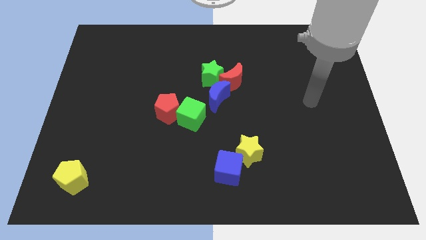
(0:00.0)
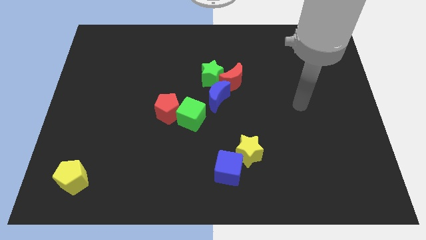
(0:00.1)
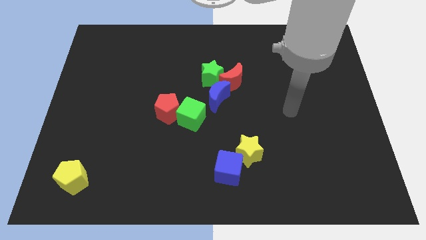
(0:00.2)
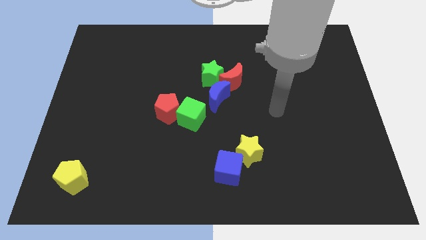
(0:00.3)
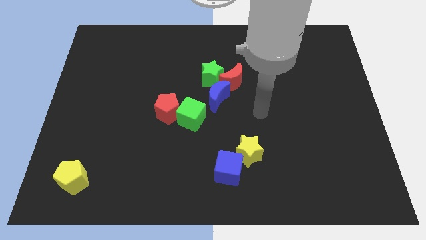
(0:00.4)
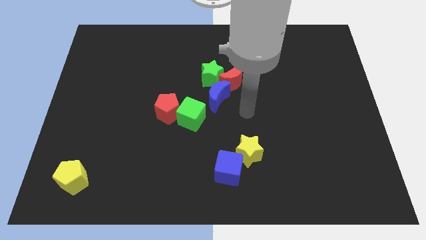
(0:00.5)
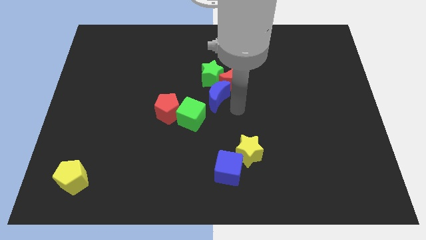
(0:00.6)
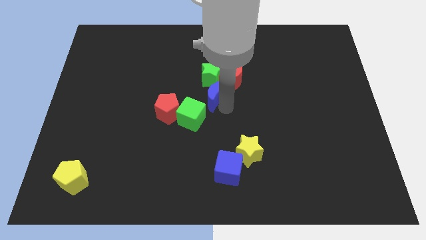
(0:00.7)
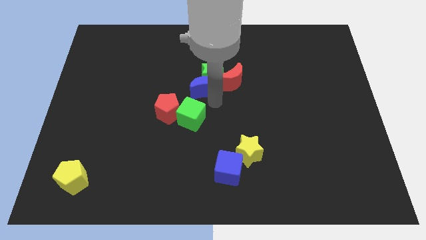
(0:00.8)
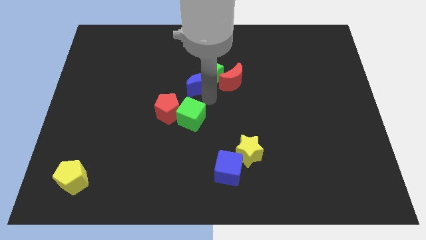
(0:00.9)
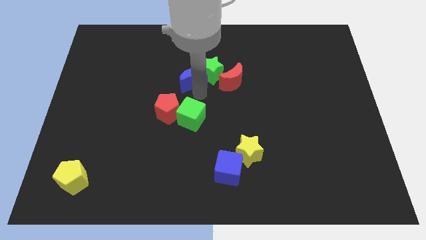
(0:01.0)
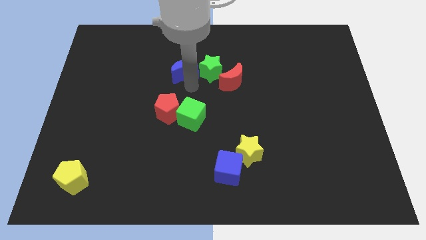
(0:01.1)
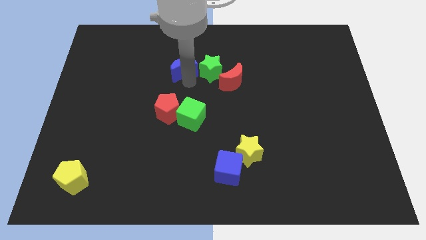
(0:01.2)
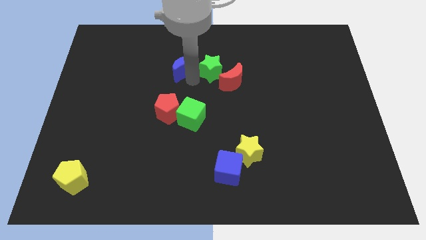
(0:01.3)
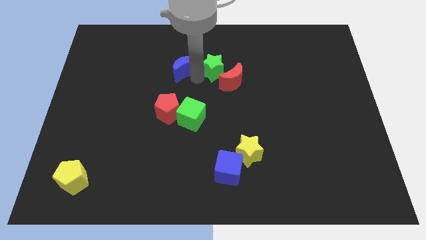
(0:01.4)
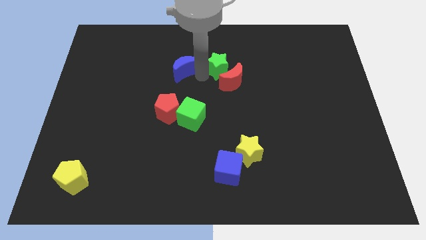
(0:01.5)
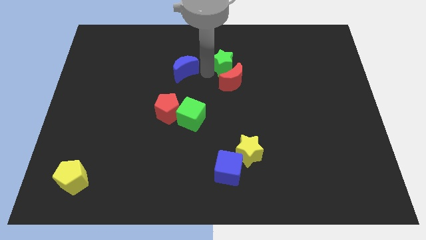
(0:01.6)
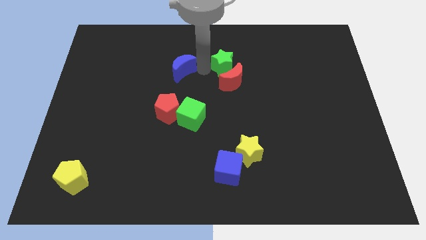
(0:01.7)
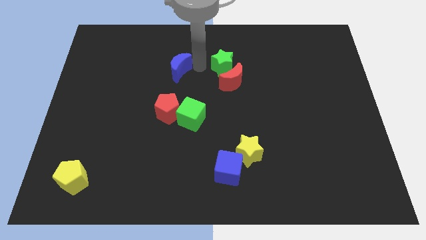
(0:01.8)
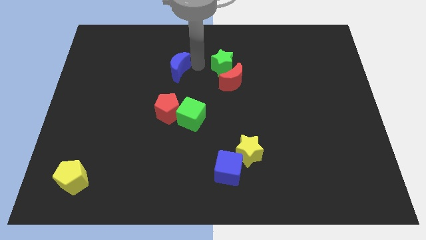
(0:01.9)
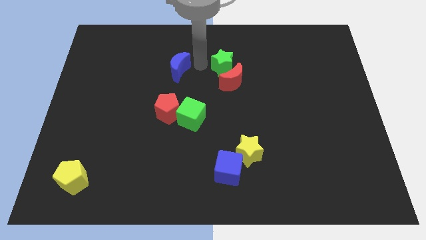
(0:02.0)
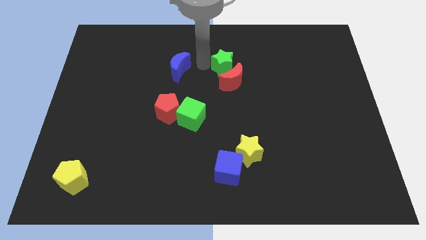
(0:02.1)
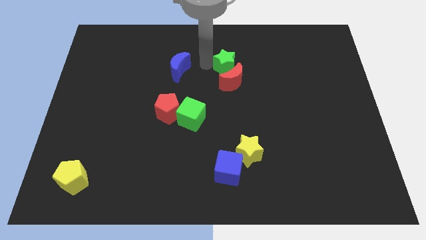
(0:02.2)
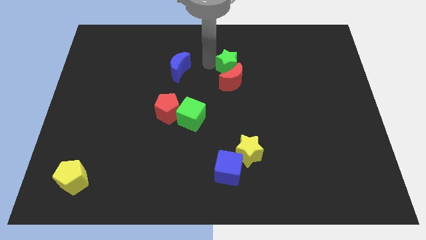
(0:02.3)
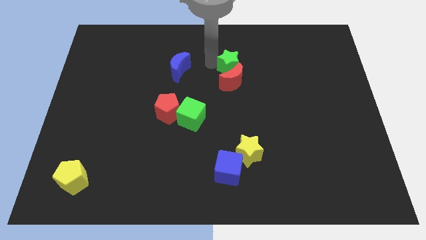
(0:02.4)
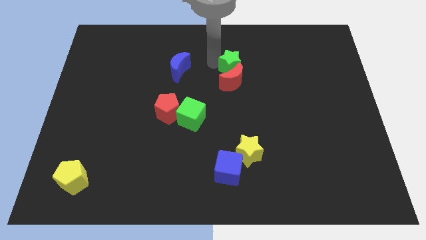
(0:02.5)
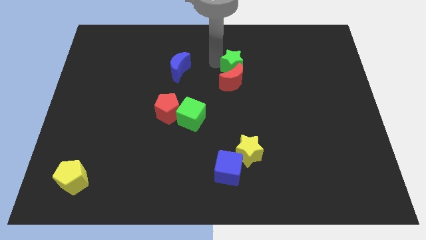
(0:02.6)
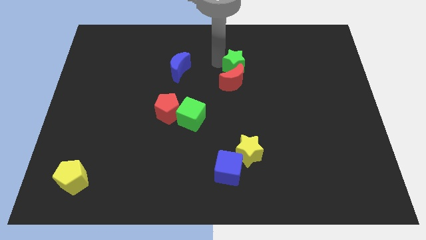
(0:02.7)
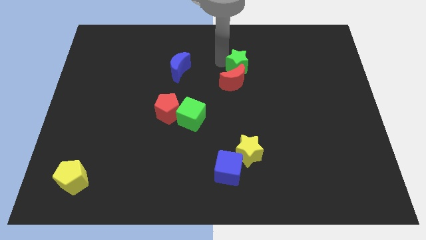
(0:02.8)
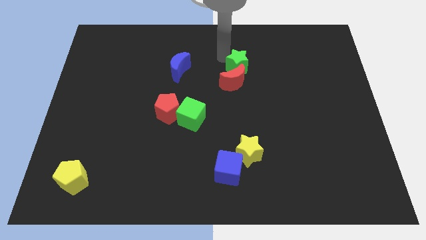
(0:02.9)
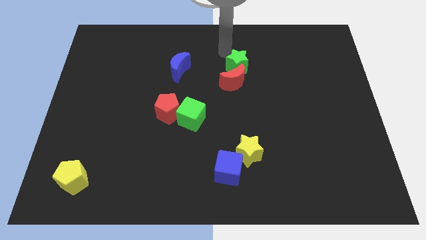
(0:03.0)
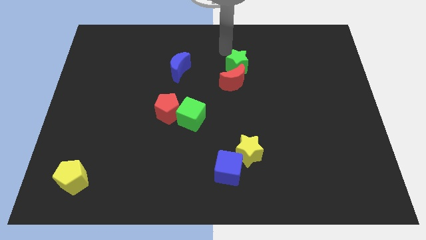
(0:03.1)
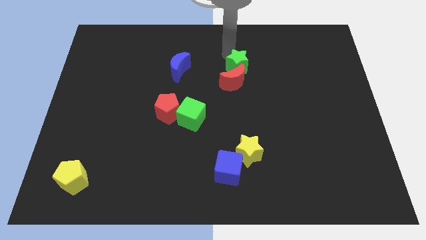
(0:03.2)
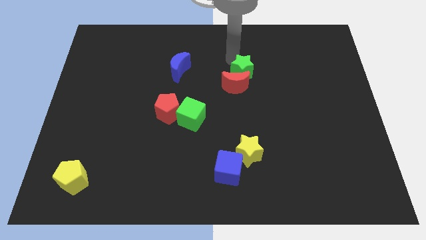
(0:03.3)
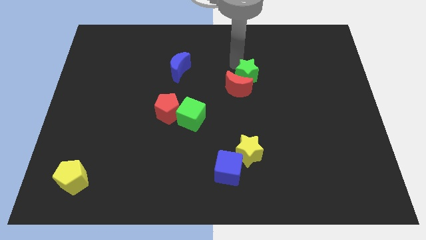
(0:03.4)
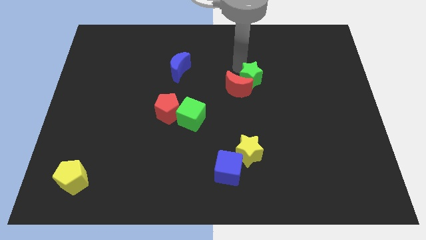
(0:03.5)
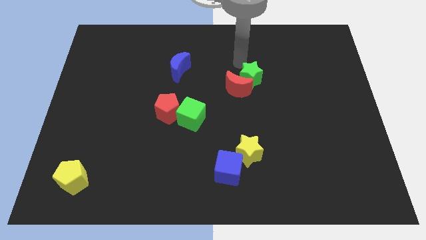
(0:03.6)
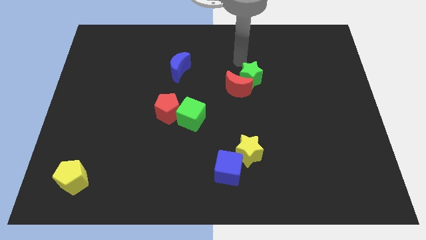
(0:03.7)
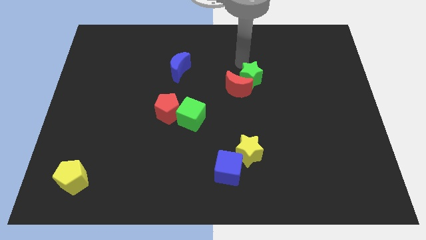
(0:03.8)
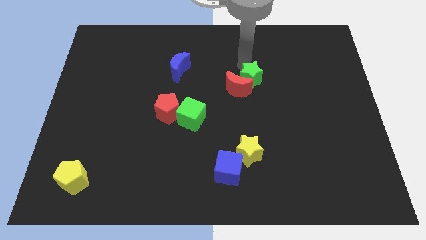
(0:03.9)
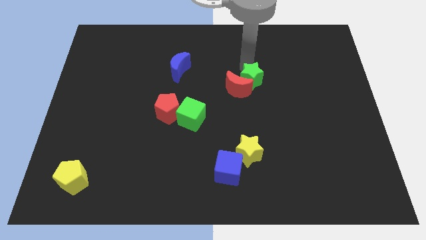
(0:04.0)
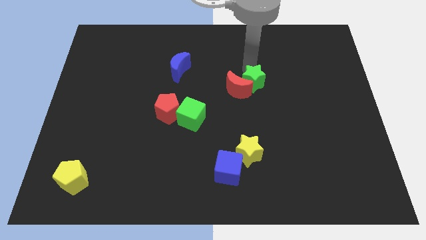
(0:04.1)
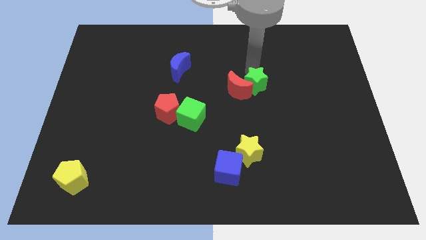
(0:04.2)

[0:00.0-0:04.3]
slightly push the green star diagonally down and to the right

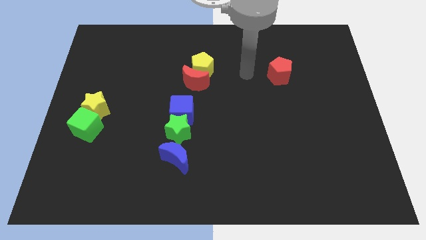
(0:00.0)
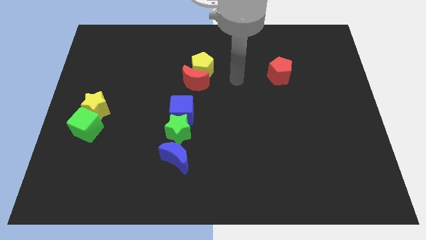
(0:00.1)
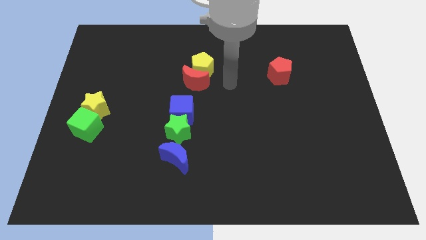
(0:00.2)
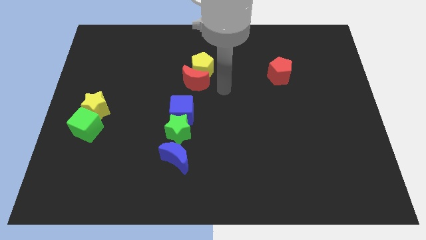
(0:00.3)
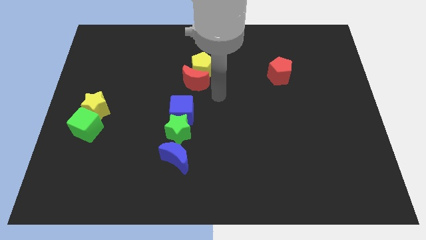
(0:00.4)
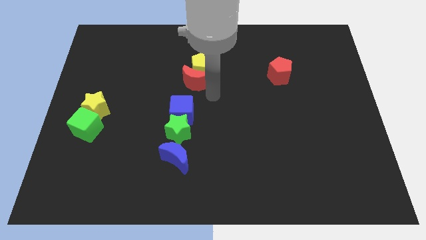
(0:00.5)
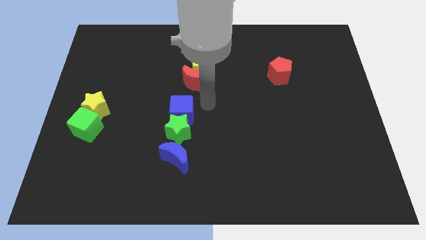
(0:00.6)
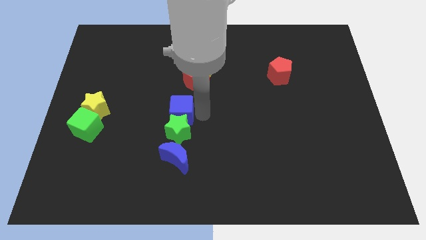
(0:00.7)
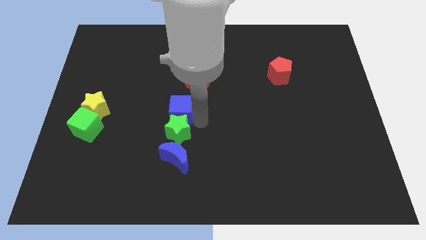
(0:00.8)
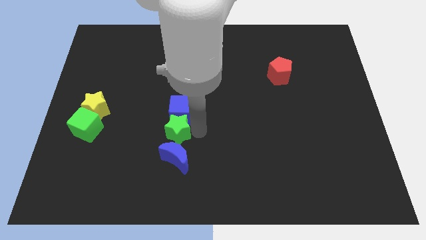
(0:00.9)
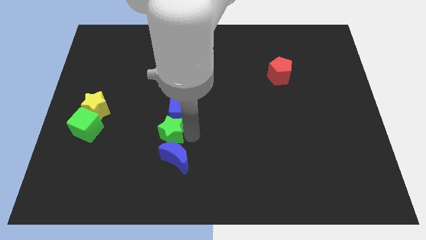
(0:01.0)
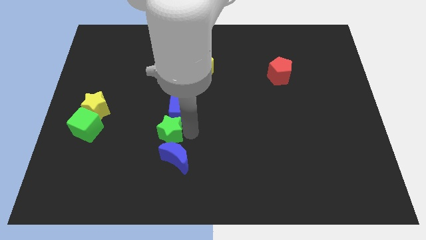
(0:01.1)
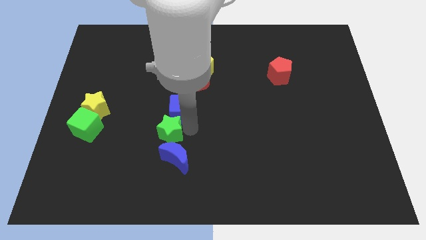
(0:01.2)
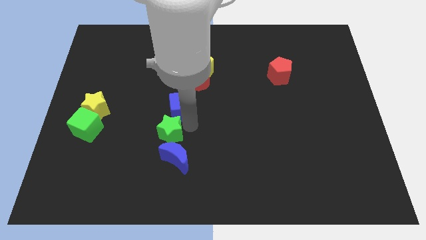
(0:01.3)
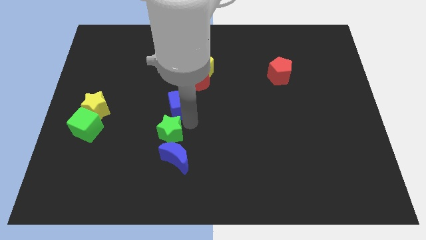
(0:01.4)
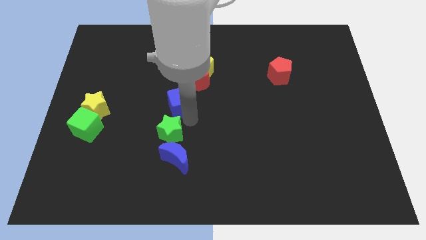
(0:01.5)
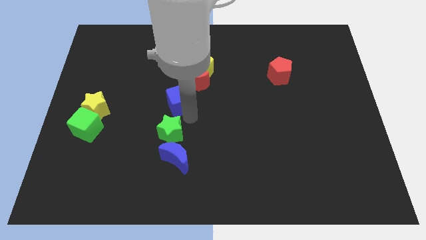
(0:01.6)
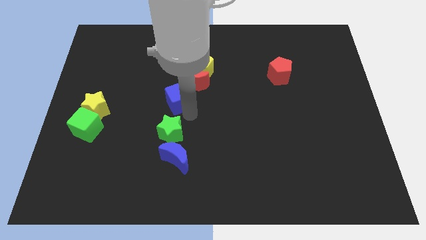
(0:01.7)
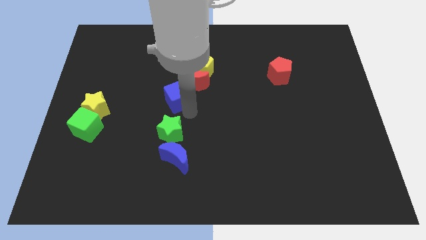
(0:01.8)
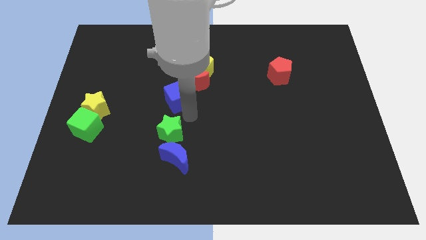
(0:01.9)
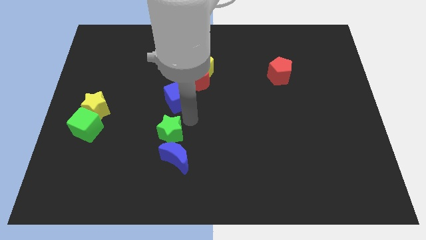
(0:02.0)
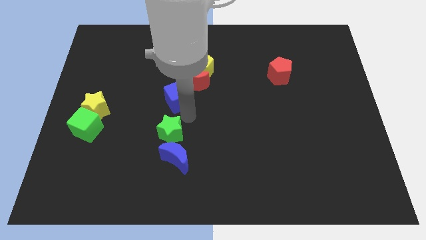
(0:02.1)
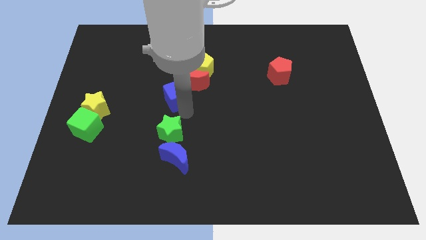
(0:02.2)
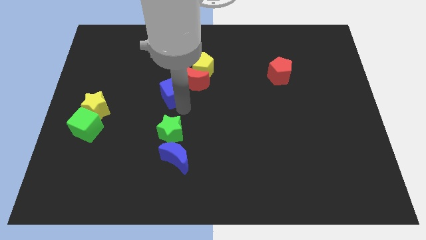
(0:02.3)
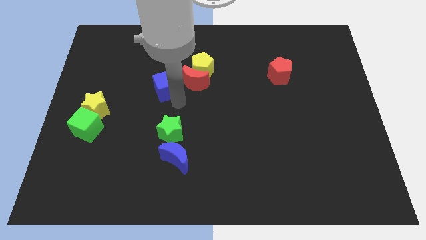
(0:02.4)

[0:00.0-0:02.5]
push the blue cube somewhat up

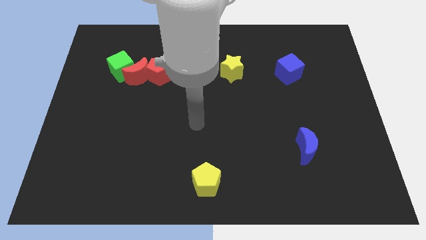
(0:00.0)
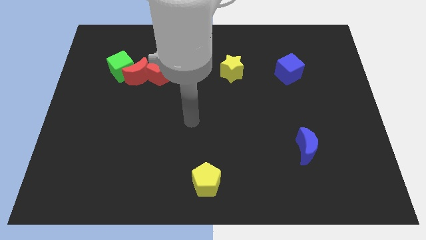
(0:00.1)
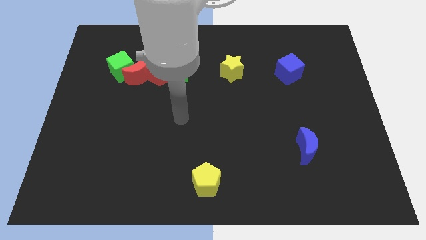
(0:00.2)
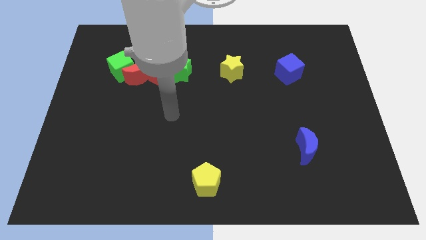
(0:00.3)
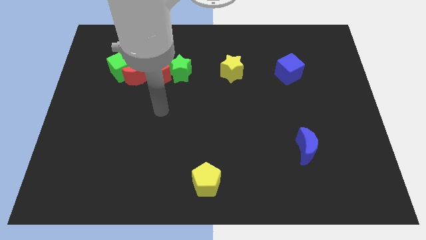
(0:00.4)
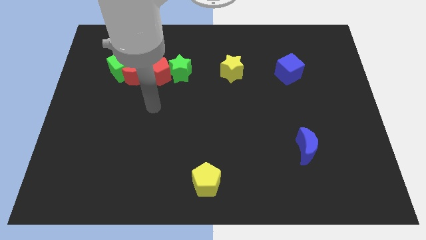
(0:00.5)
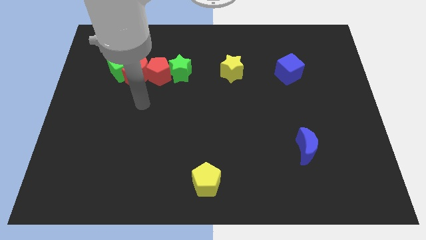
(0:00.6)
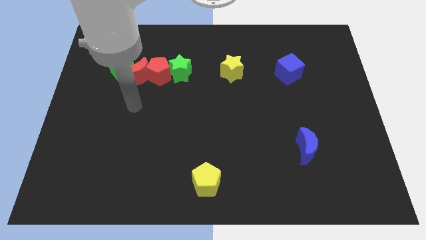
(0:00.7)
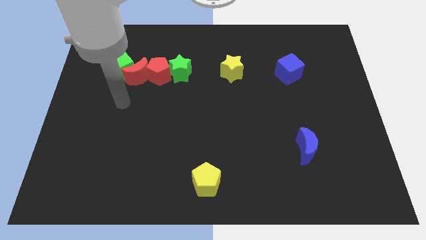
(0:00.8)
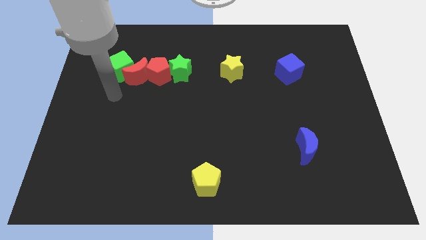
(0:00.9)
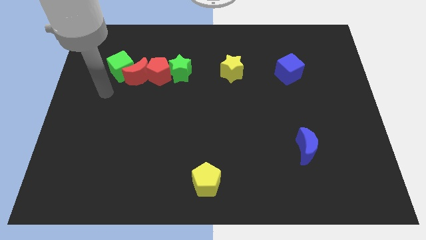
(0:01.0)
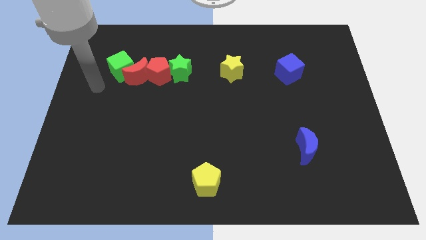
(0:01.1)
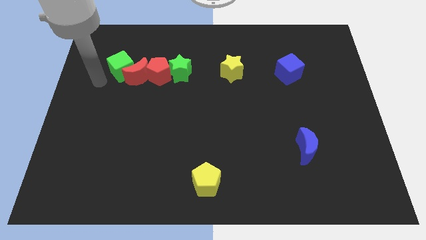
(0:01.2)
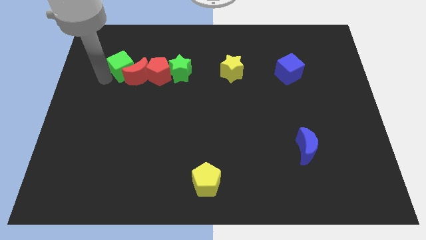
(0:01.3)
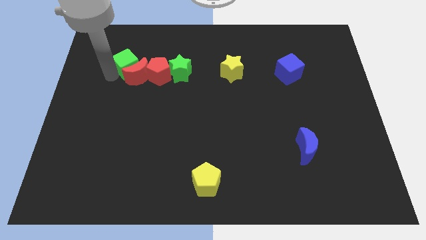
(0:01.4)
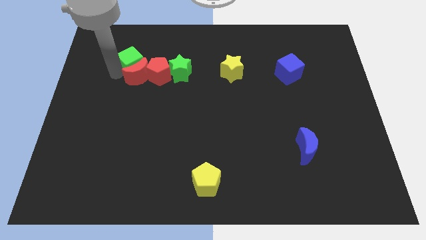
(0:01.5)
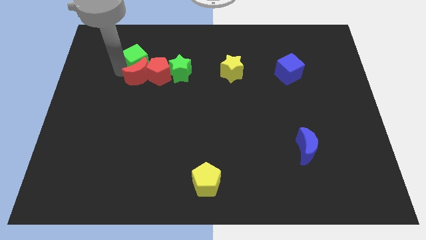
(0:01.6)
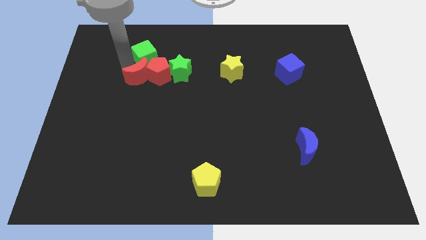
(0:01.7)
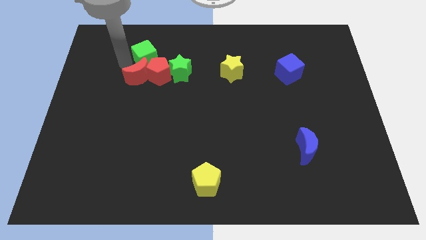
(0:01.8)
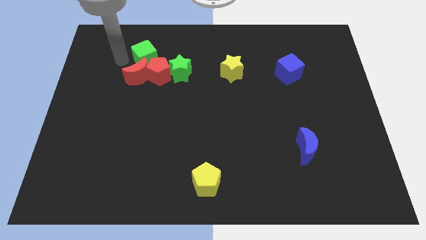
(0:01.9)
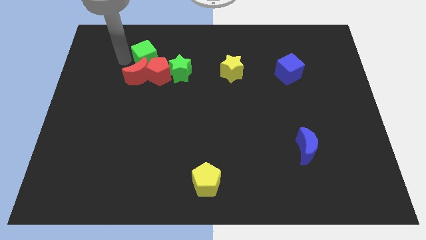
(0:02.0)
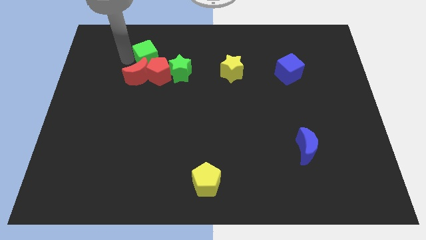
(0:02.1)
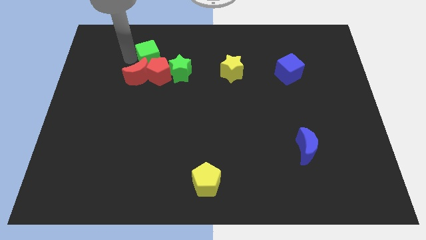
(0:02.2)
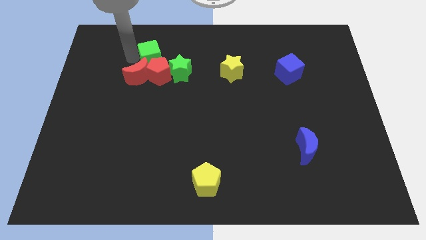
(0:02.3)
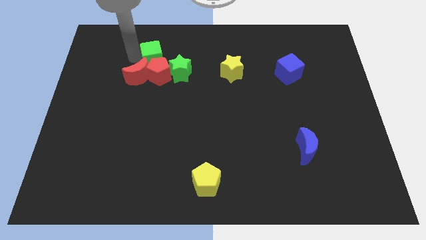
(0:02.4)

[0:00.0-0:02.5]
slightly push the green cube right
